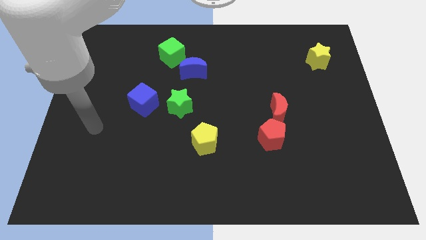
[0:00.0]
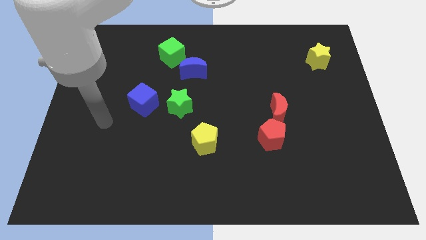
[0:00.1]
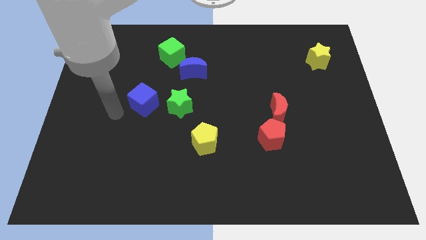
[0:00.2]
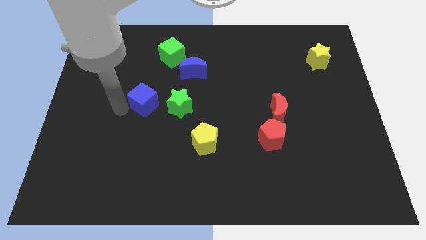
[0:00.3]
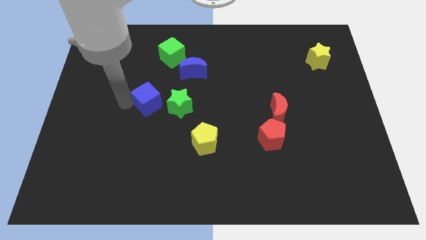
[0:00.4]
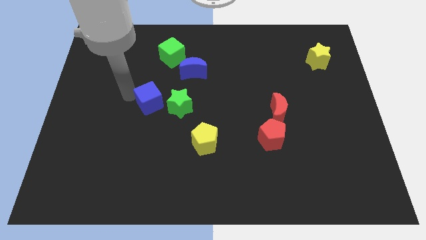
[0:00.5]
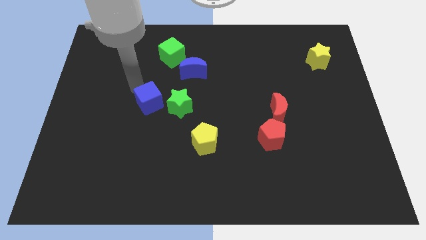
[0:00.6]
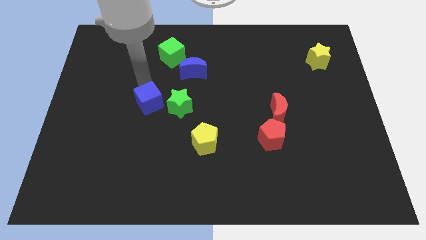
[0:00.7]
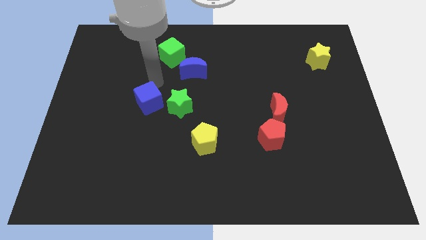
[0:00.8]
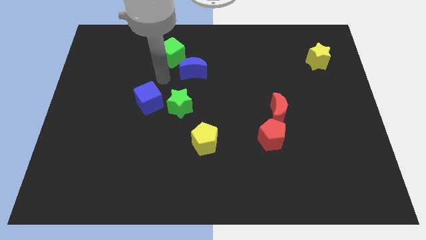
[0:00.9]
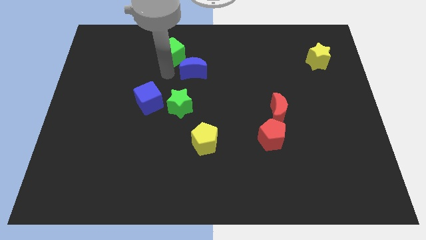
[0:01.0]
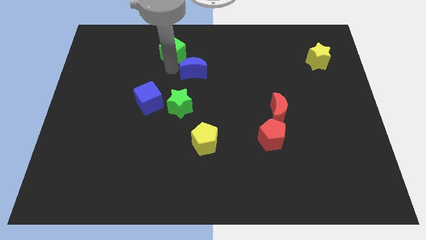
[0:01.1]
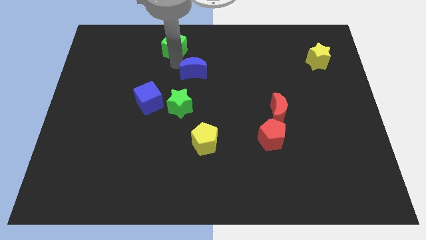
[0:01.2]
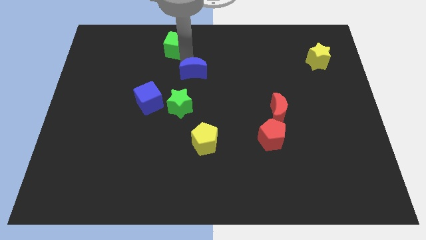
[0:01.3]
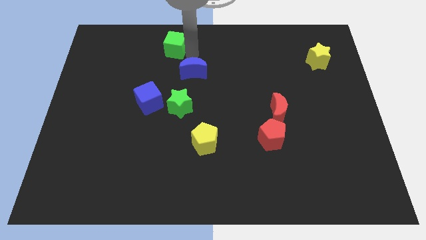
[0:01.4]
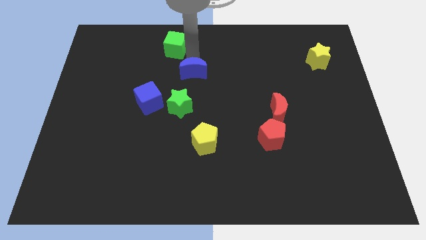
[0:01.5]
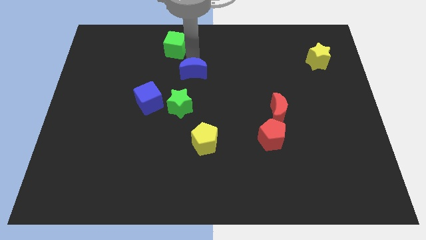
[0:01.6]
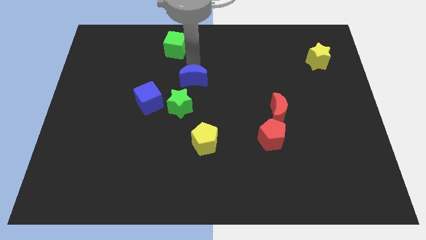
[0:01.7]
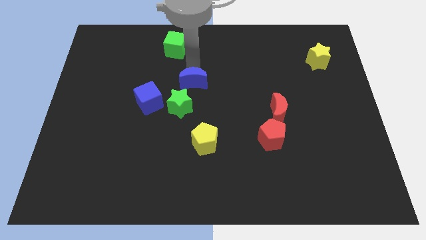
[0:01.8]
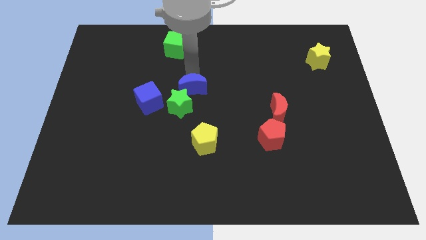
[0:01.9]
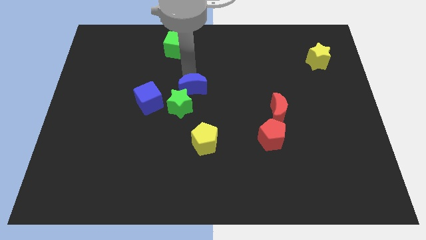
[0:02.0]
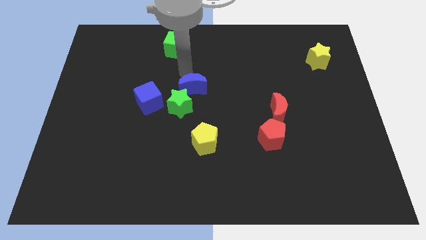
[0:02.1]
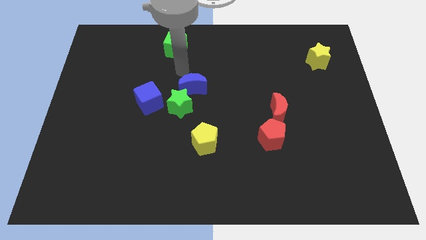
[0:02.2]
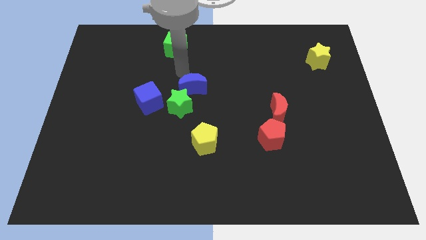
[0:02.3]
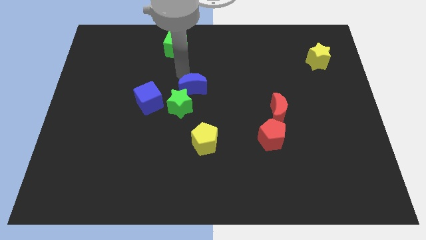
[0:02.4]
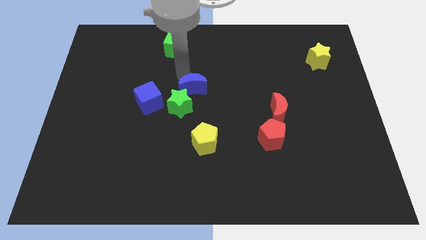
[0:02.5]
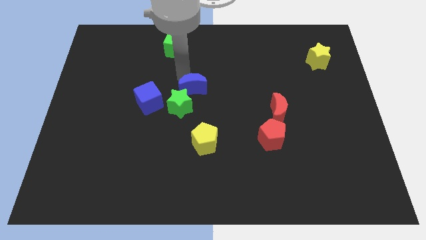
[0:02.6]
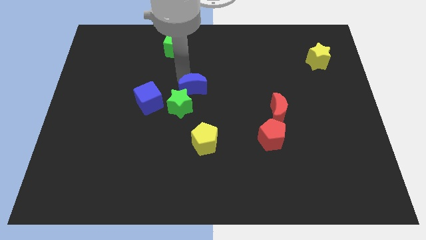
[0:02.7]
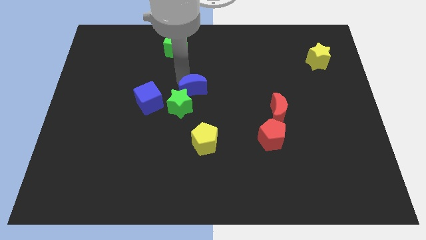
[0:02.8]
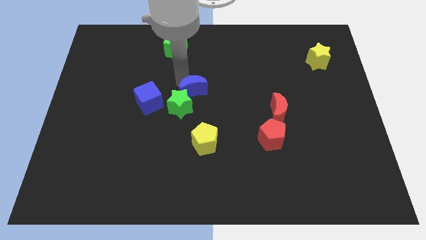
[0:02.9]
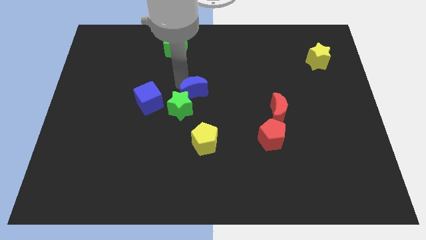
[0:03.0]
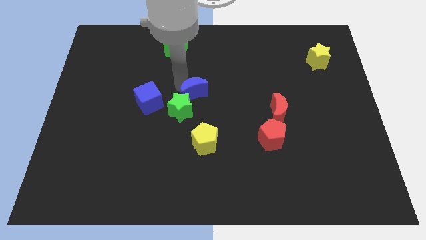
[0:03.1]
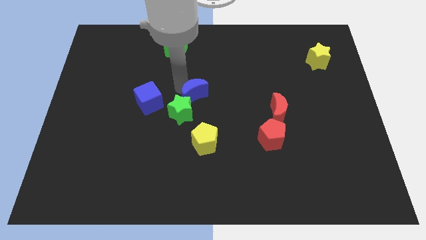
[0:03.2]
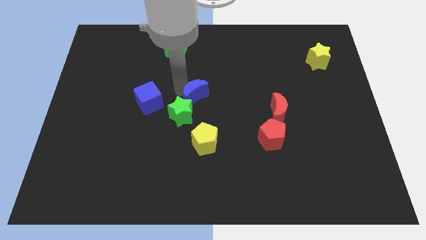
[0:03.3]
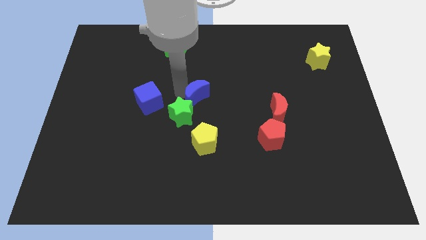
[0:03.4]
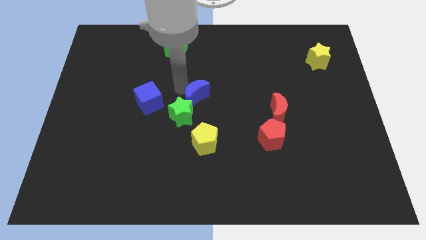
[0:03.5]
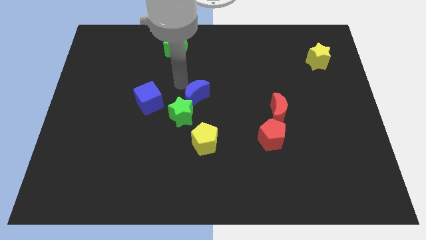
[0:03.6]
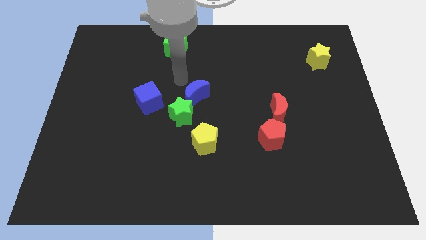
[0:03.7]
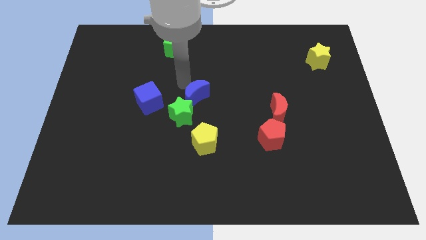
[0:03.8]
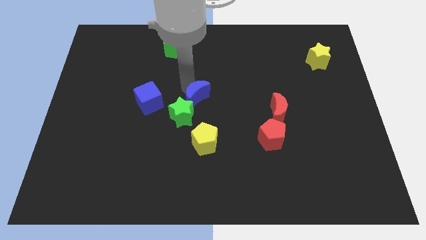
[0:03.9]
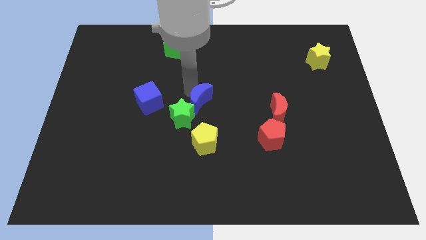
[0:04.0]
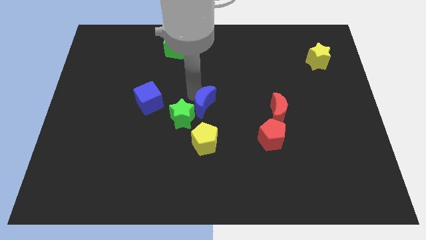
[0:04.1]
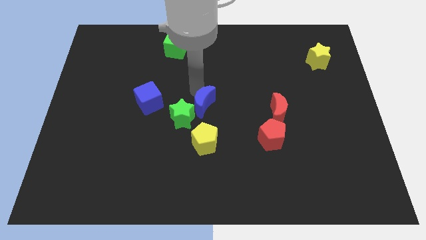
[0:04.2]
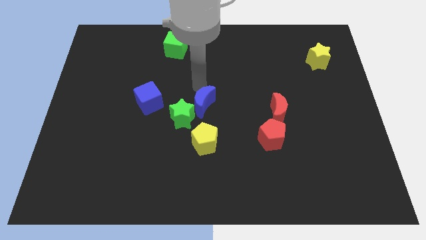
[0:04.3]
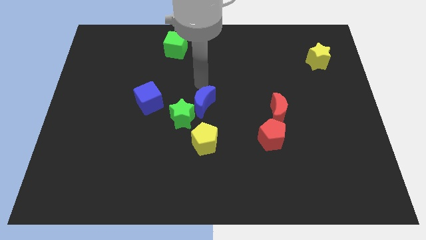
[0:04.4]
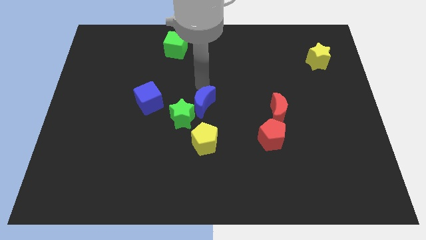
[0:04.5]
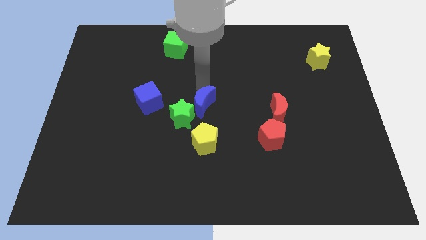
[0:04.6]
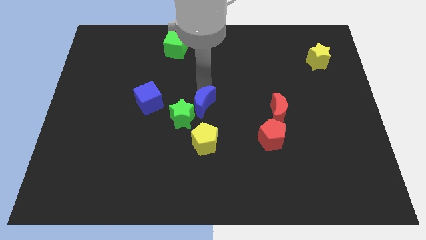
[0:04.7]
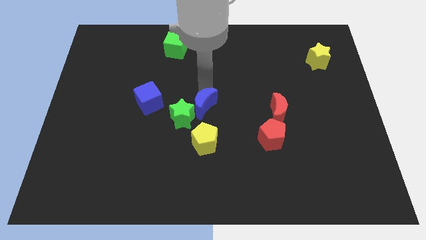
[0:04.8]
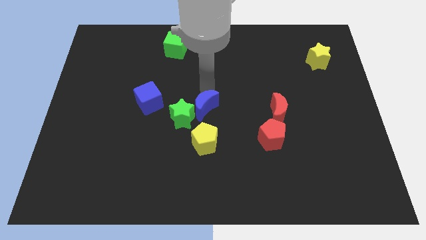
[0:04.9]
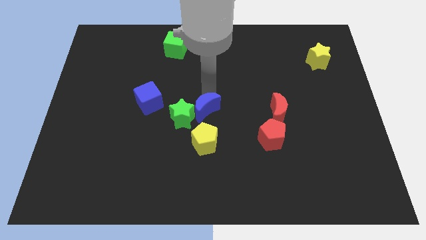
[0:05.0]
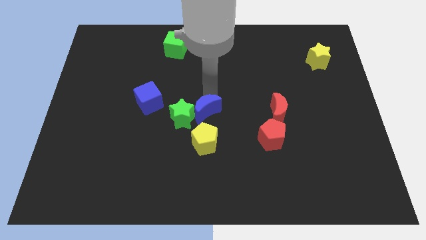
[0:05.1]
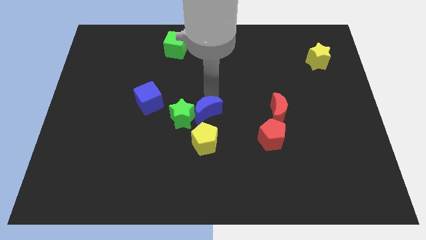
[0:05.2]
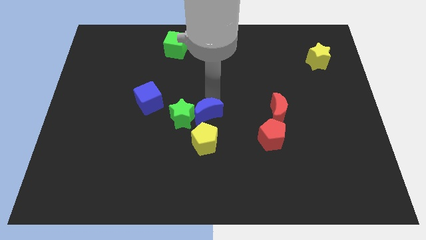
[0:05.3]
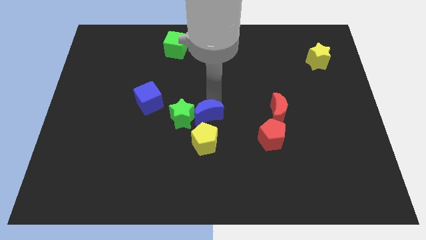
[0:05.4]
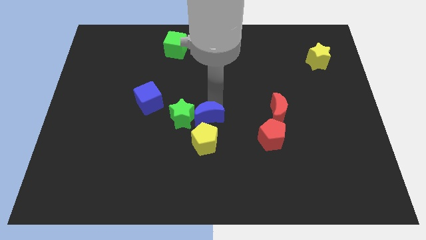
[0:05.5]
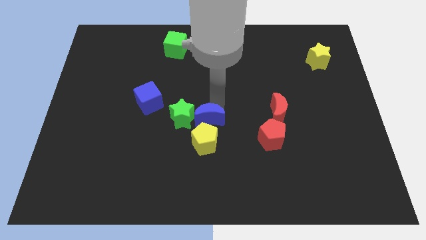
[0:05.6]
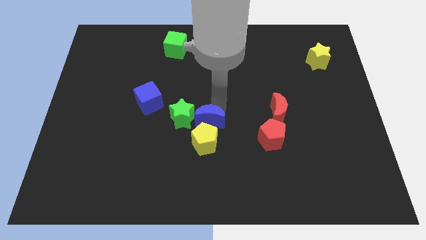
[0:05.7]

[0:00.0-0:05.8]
put the blue moon towards the yellow pentagon

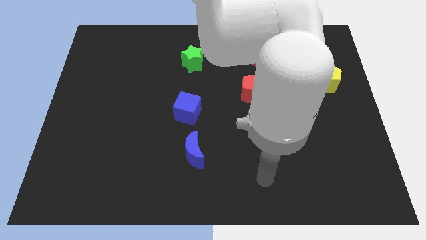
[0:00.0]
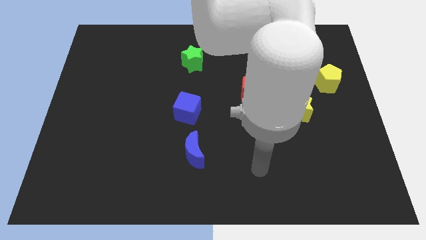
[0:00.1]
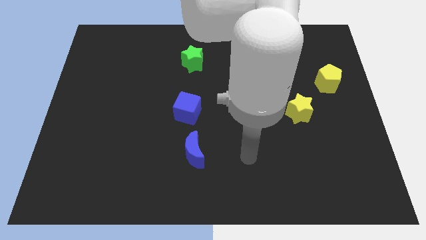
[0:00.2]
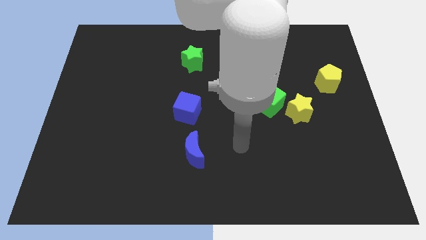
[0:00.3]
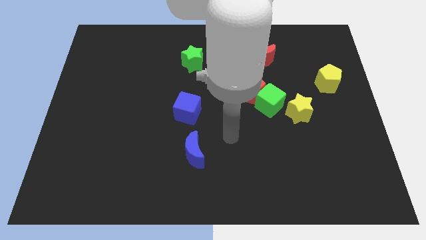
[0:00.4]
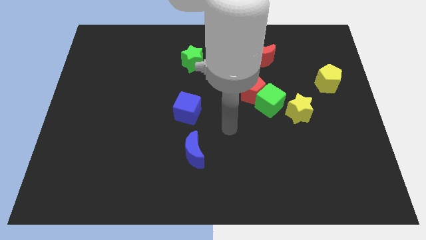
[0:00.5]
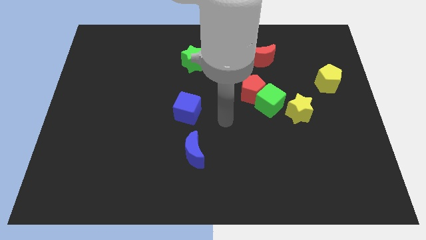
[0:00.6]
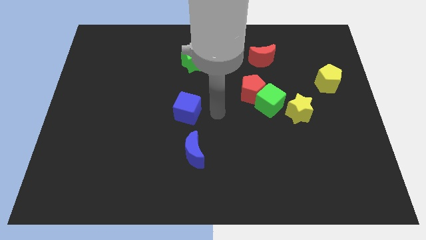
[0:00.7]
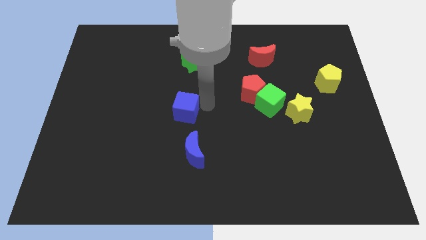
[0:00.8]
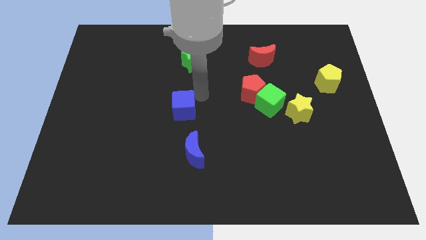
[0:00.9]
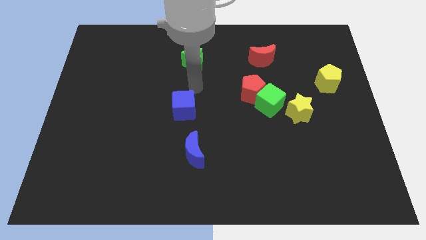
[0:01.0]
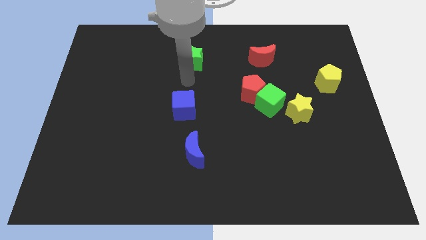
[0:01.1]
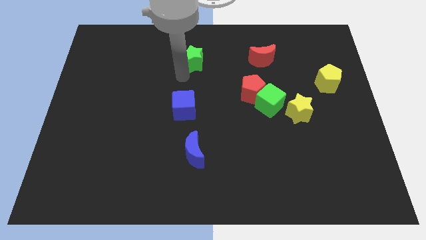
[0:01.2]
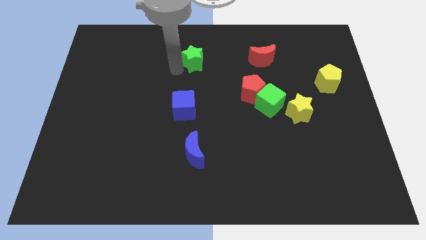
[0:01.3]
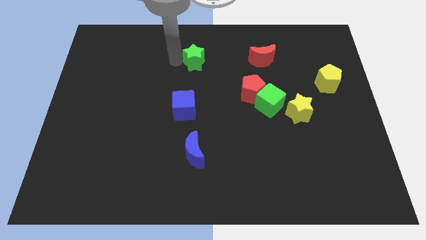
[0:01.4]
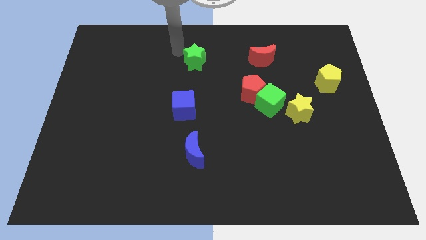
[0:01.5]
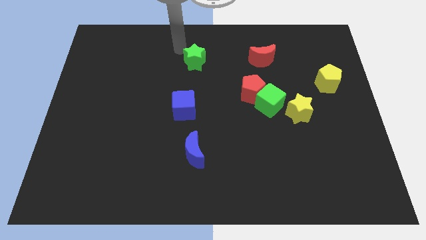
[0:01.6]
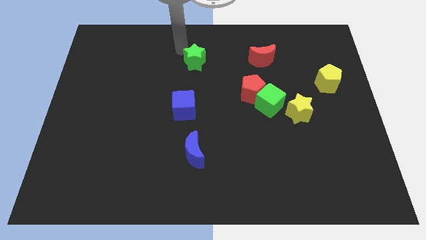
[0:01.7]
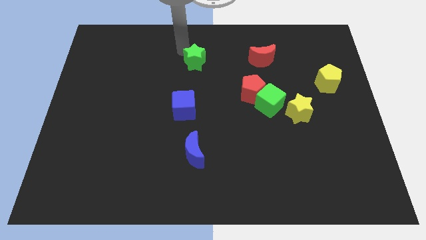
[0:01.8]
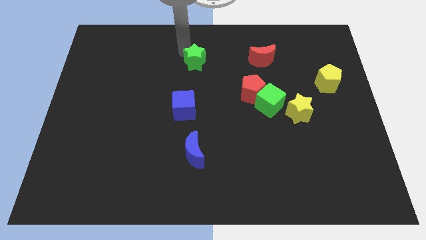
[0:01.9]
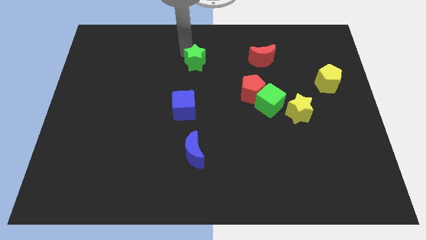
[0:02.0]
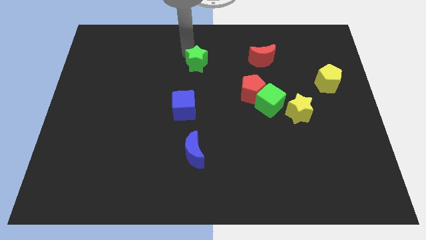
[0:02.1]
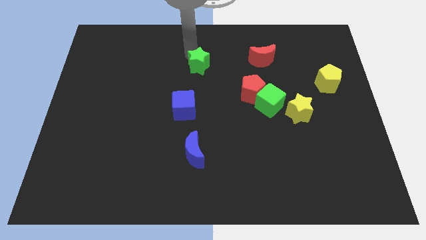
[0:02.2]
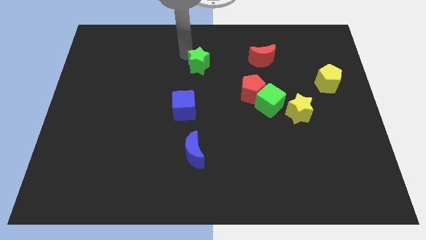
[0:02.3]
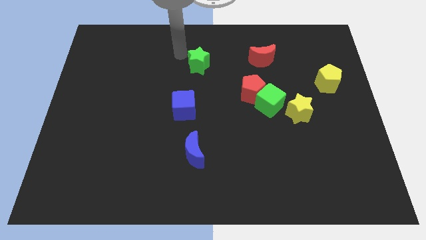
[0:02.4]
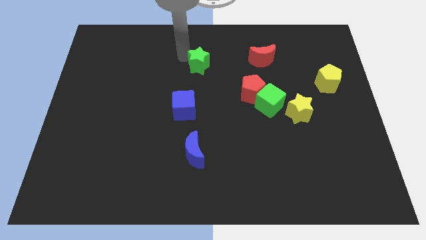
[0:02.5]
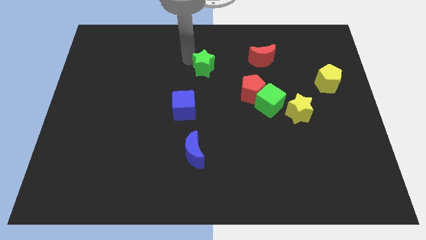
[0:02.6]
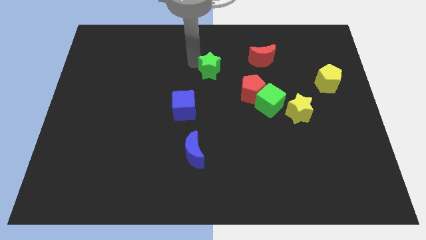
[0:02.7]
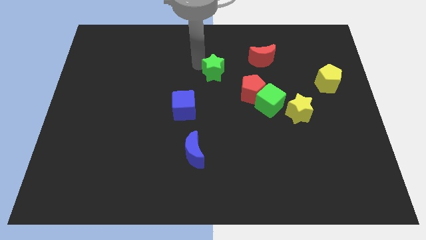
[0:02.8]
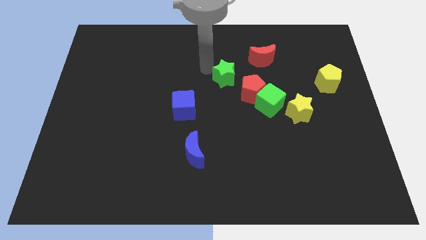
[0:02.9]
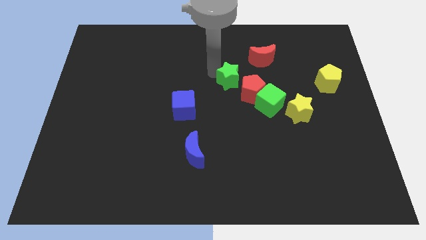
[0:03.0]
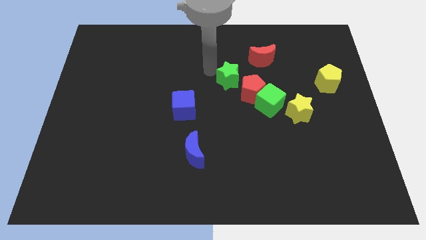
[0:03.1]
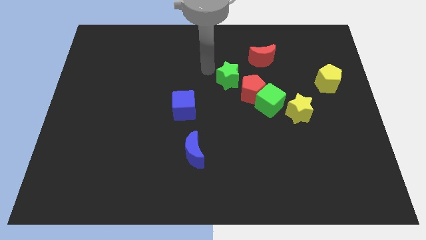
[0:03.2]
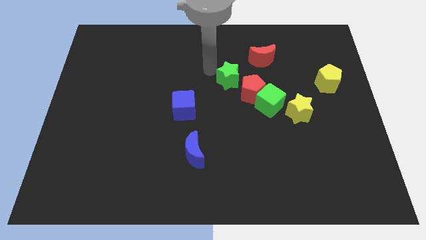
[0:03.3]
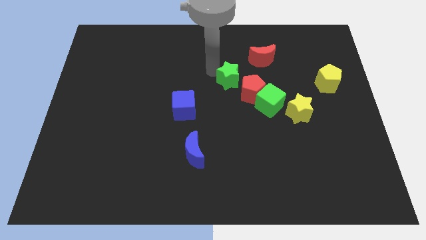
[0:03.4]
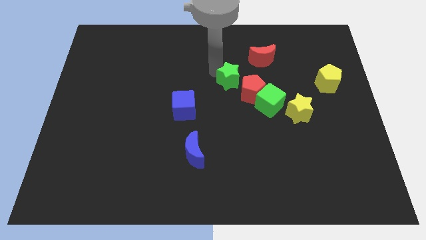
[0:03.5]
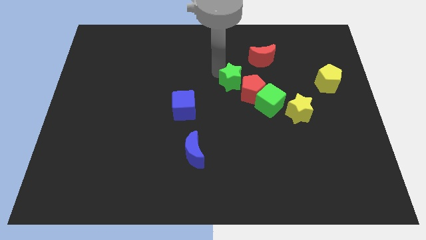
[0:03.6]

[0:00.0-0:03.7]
slide the green star close to the red pentagon
